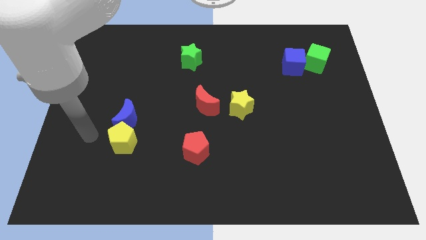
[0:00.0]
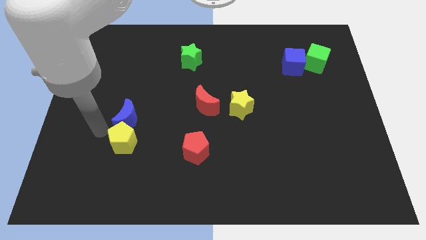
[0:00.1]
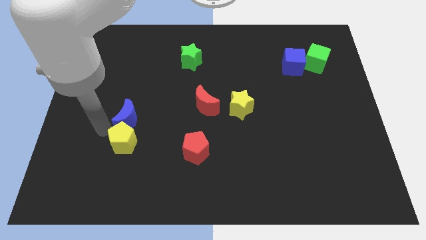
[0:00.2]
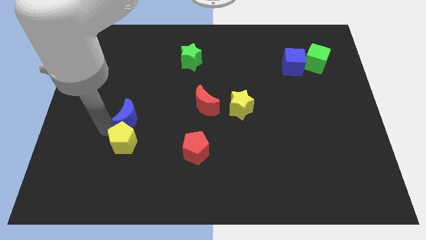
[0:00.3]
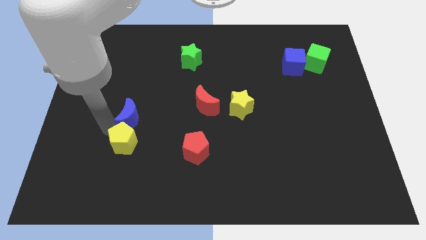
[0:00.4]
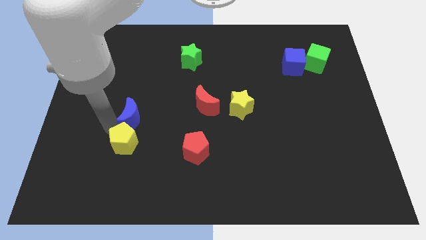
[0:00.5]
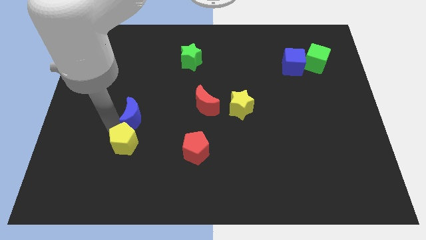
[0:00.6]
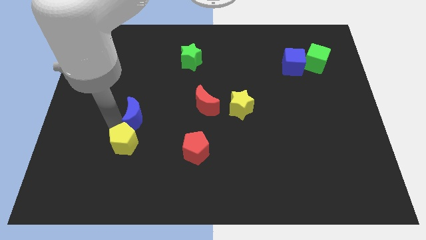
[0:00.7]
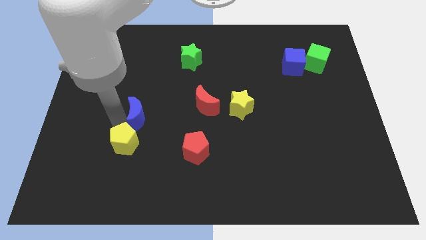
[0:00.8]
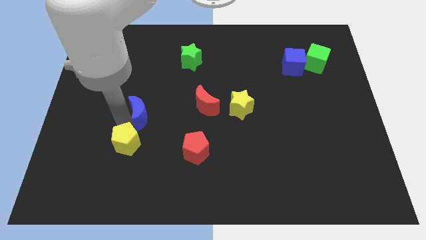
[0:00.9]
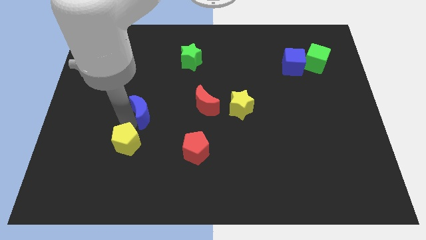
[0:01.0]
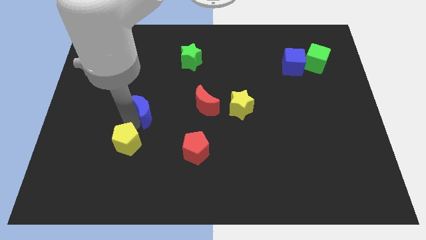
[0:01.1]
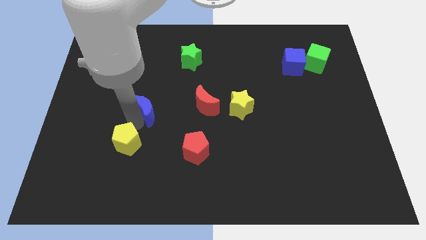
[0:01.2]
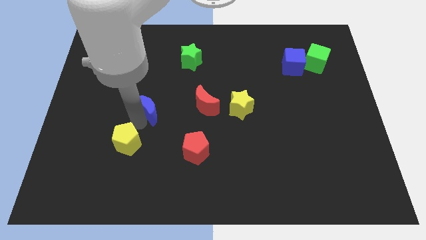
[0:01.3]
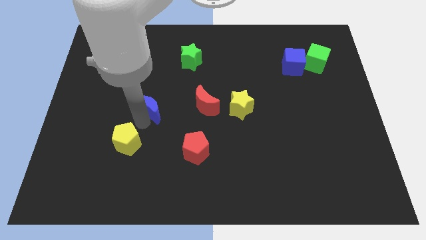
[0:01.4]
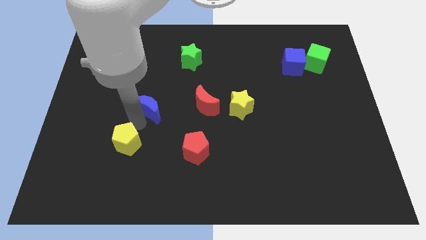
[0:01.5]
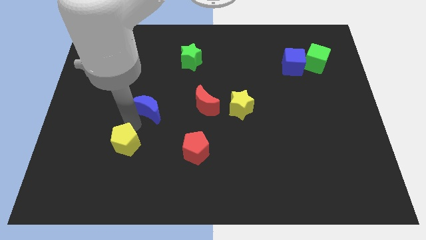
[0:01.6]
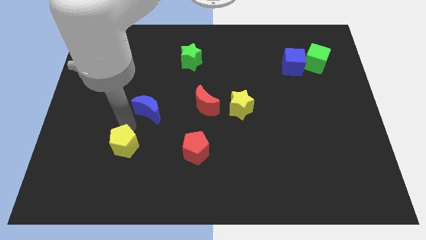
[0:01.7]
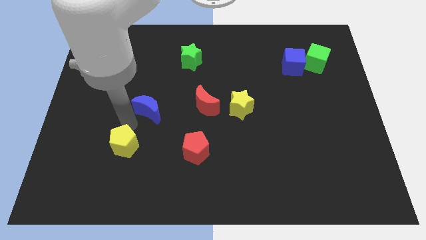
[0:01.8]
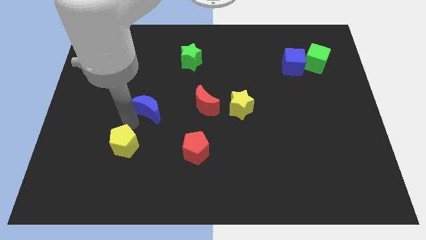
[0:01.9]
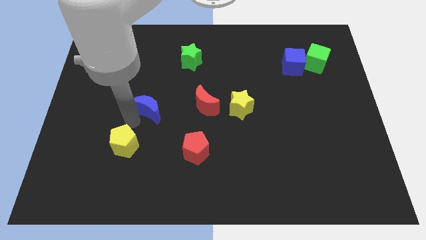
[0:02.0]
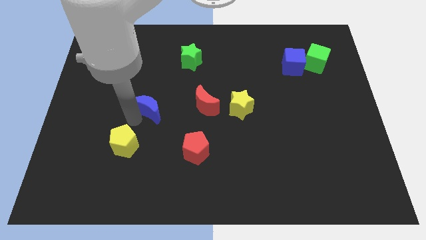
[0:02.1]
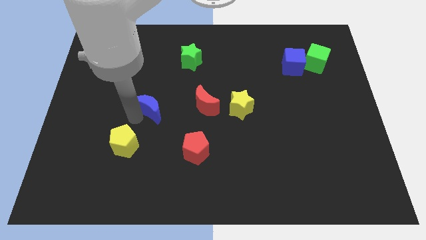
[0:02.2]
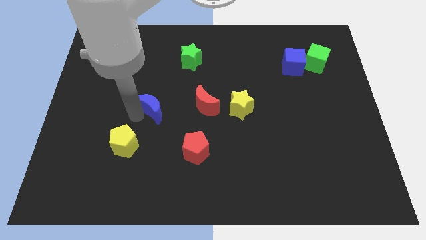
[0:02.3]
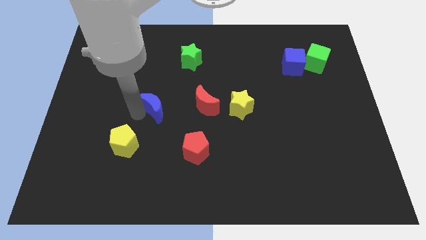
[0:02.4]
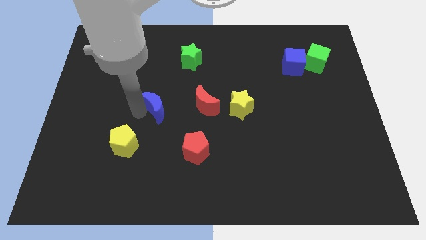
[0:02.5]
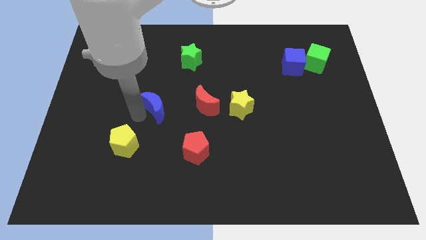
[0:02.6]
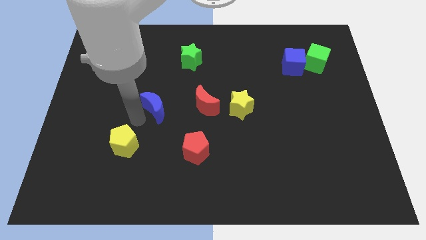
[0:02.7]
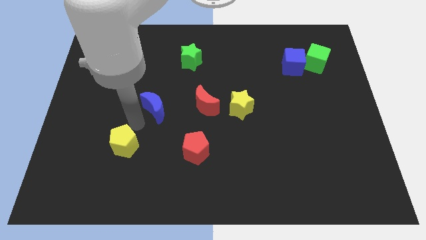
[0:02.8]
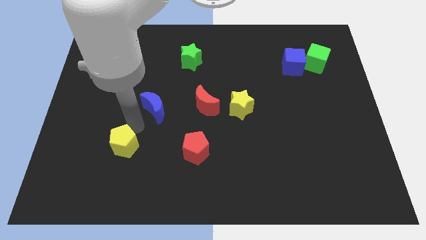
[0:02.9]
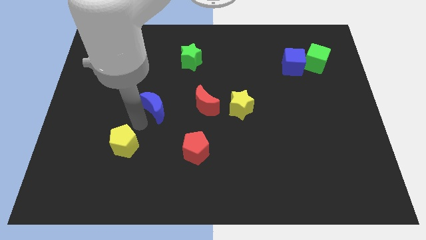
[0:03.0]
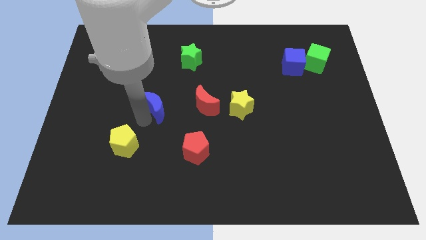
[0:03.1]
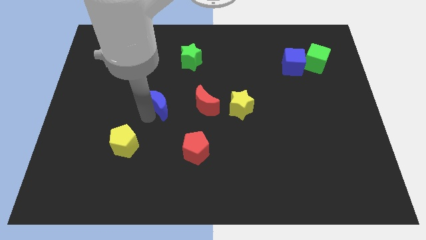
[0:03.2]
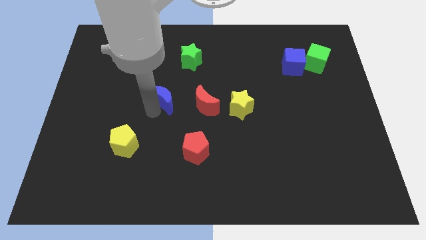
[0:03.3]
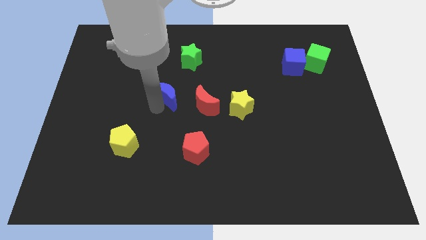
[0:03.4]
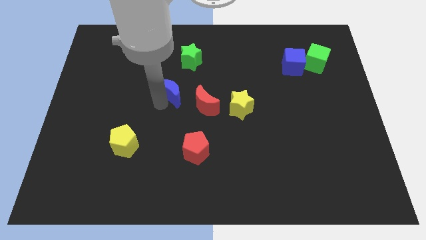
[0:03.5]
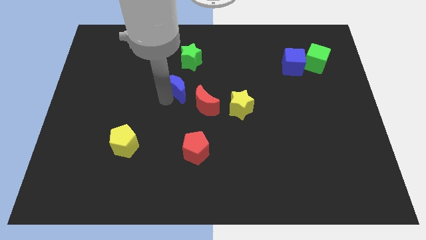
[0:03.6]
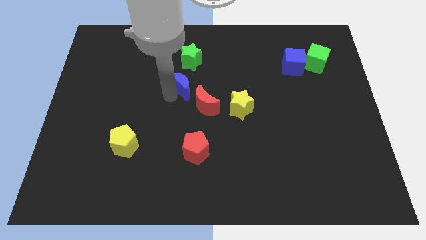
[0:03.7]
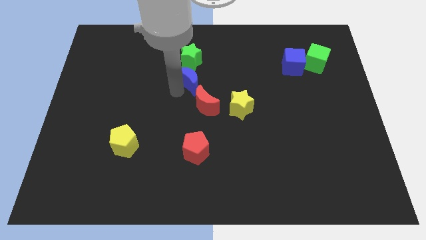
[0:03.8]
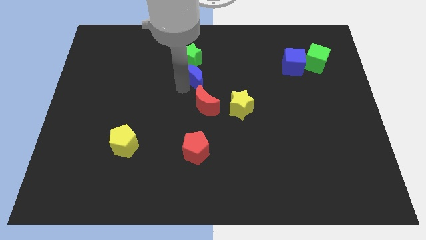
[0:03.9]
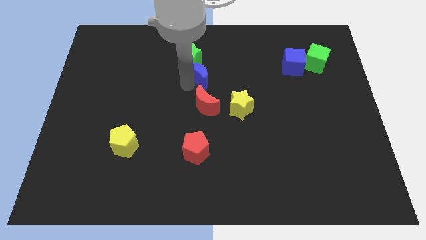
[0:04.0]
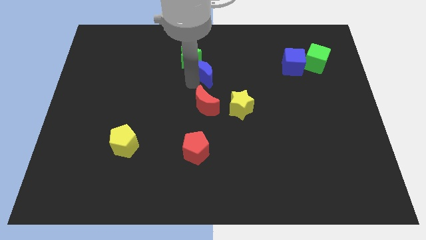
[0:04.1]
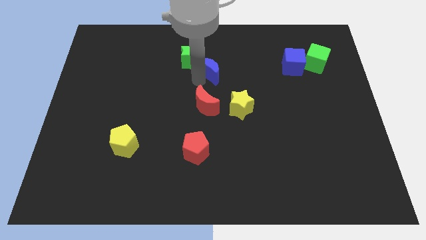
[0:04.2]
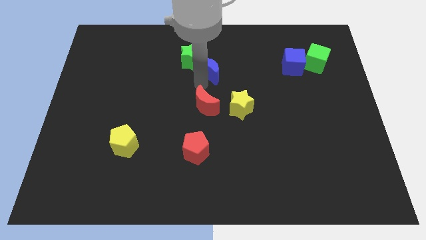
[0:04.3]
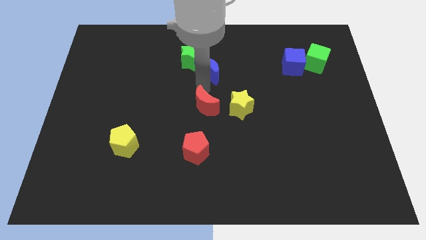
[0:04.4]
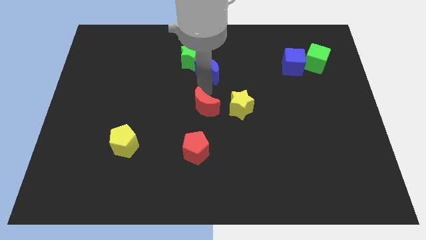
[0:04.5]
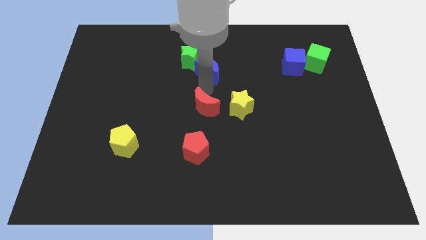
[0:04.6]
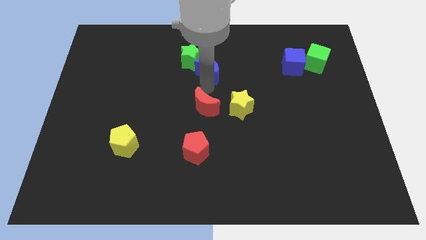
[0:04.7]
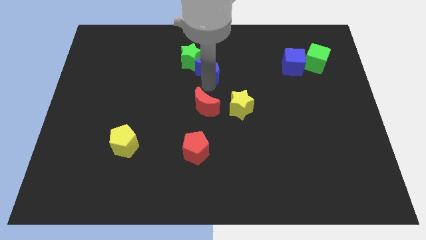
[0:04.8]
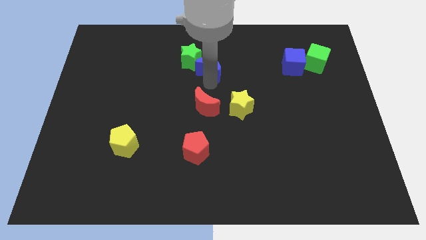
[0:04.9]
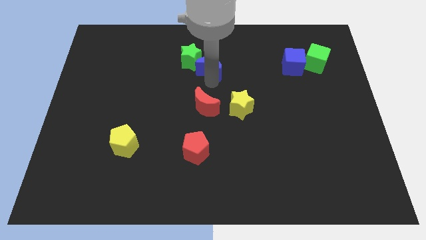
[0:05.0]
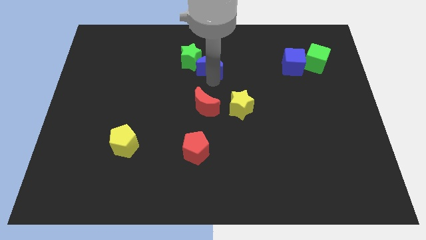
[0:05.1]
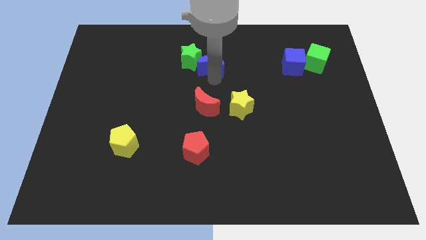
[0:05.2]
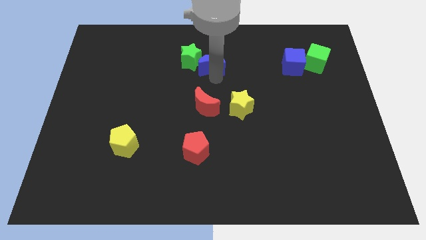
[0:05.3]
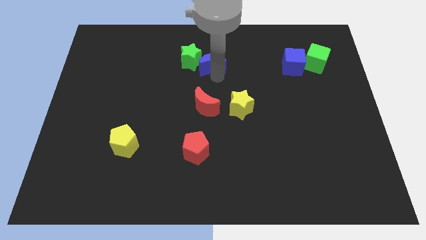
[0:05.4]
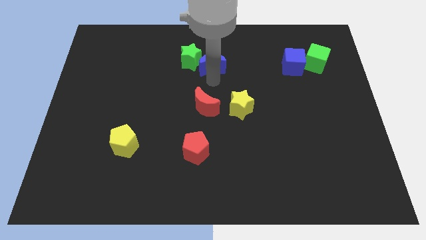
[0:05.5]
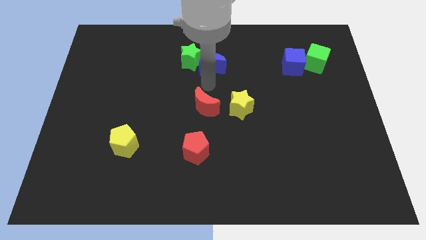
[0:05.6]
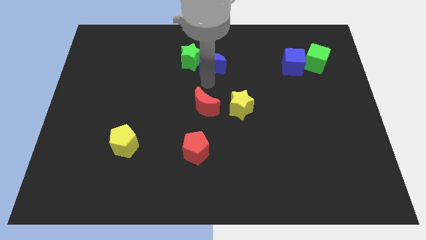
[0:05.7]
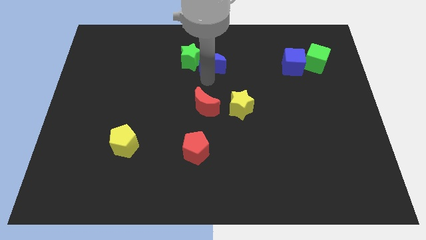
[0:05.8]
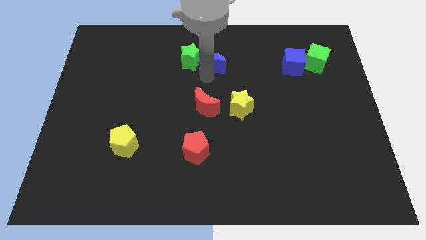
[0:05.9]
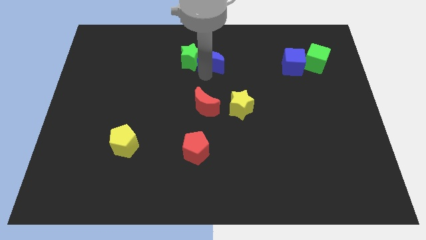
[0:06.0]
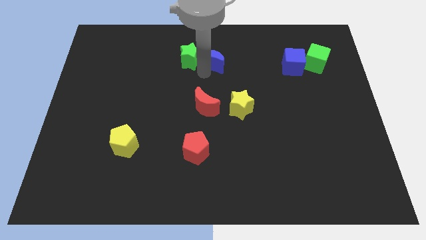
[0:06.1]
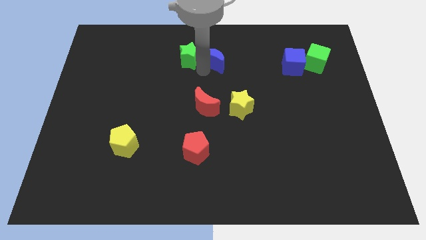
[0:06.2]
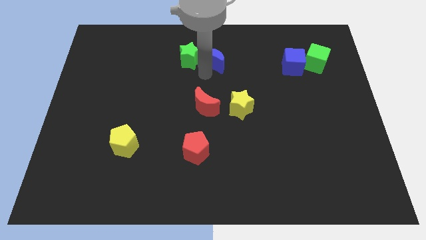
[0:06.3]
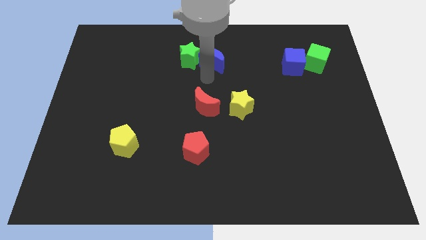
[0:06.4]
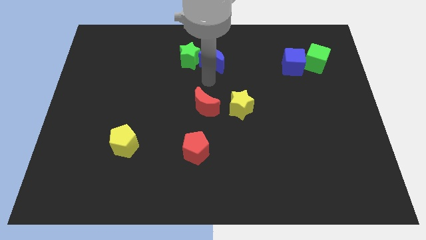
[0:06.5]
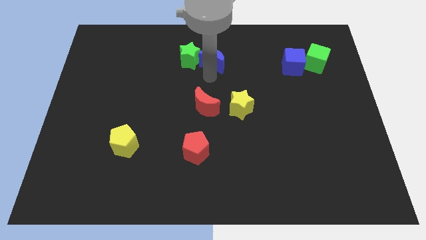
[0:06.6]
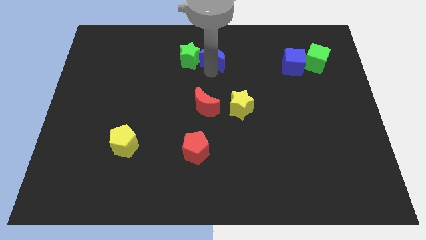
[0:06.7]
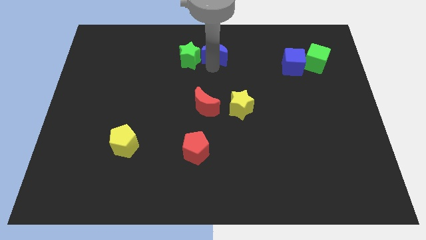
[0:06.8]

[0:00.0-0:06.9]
slide the blue moon to the towards your base
